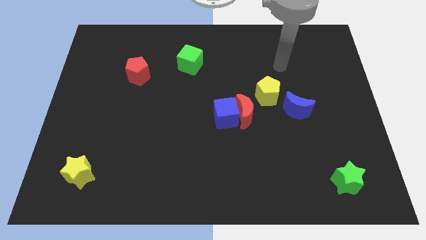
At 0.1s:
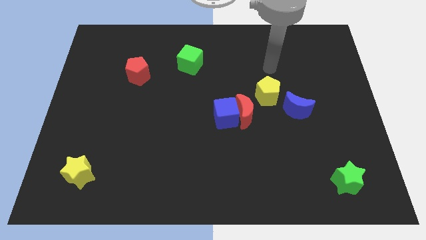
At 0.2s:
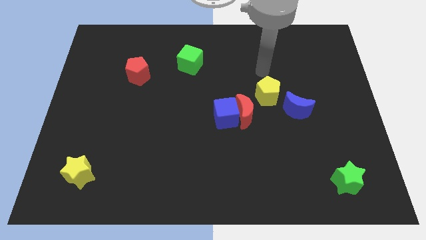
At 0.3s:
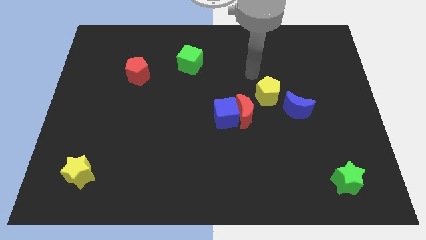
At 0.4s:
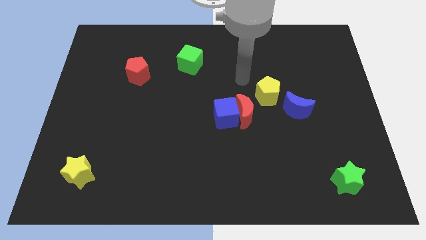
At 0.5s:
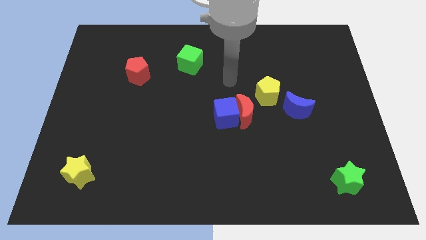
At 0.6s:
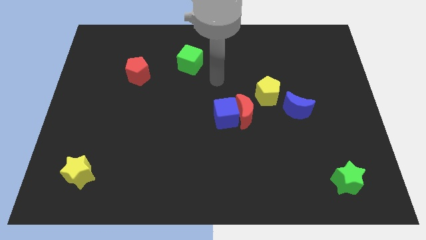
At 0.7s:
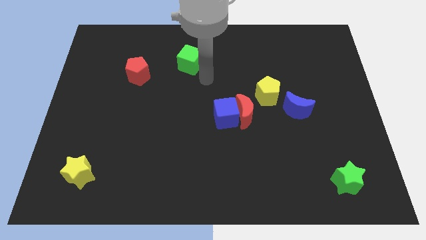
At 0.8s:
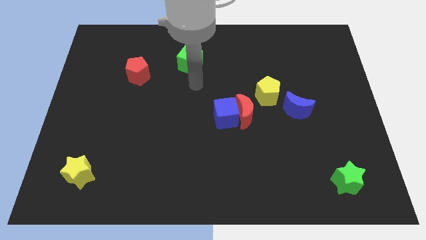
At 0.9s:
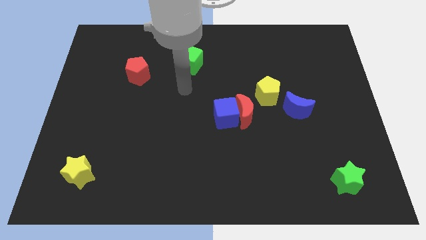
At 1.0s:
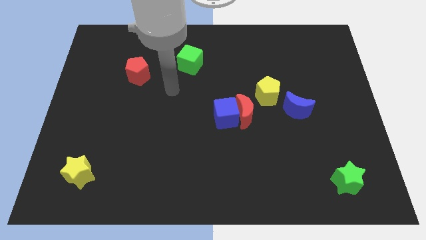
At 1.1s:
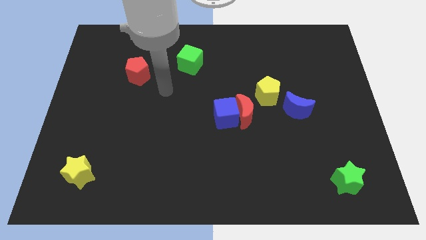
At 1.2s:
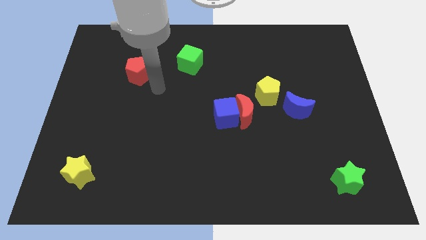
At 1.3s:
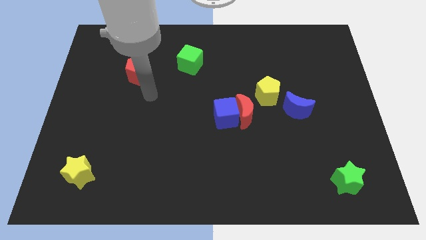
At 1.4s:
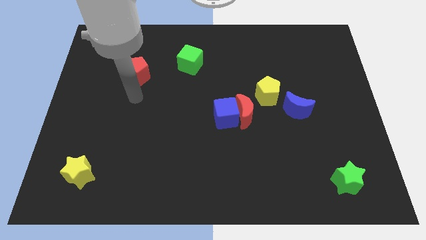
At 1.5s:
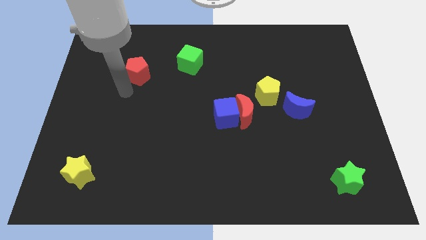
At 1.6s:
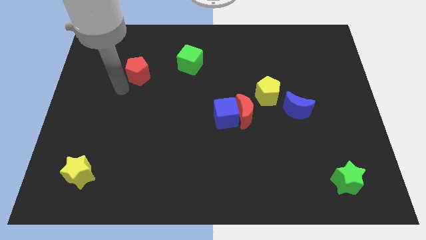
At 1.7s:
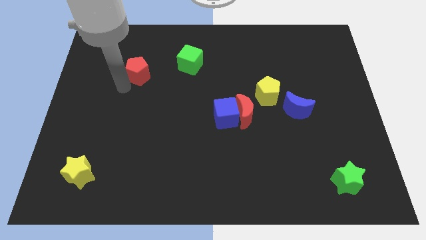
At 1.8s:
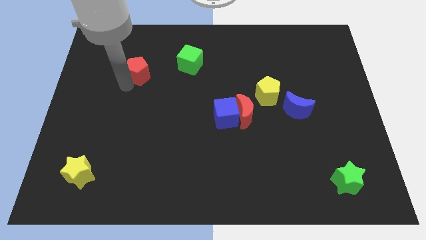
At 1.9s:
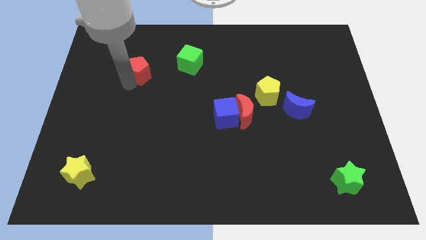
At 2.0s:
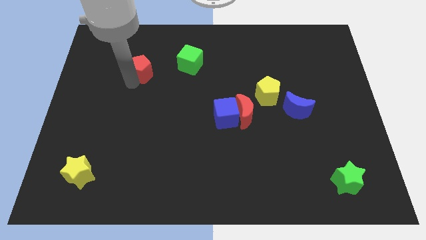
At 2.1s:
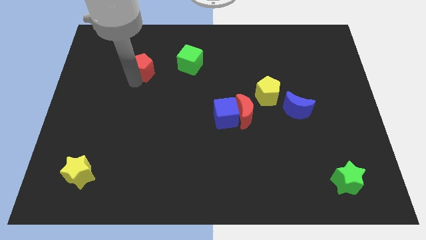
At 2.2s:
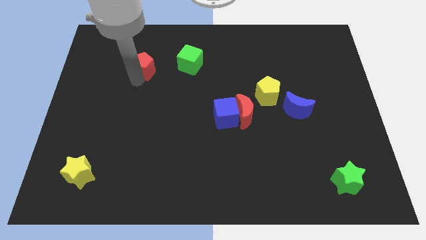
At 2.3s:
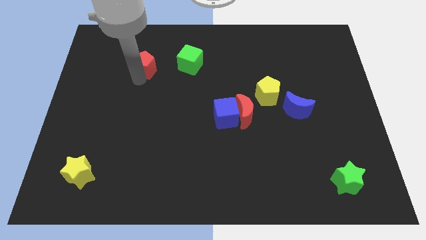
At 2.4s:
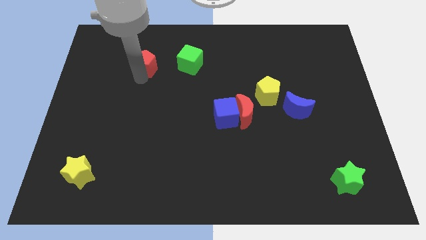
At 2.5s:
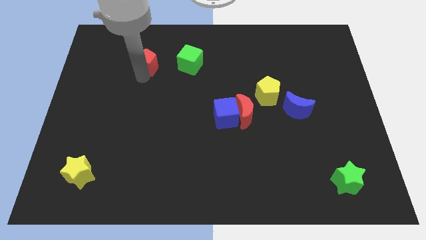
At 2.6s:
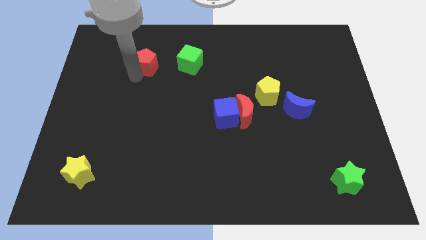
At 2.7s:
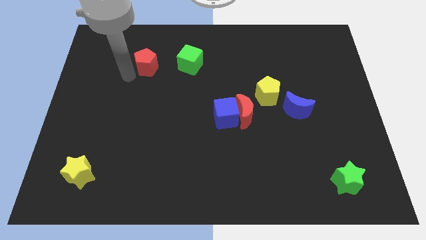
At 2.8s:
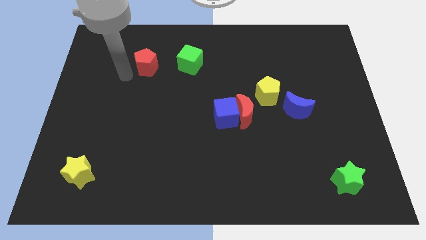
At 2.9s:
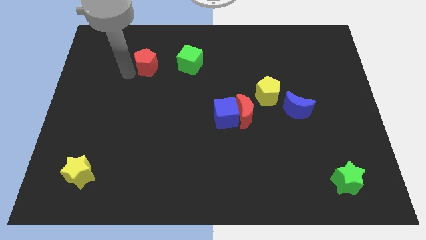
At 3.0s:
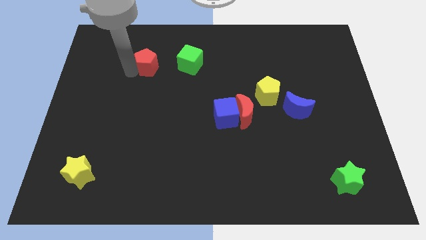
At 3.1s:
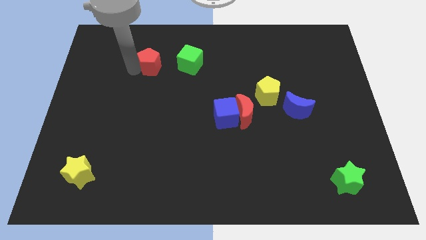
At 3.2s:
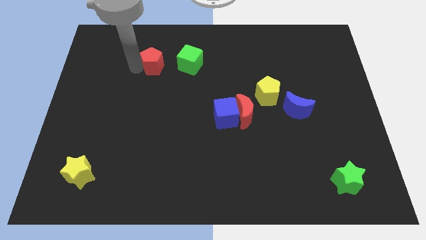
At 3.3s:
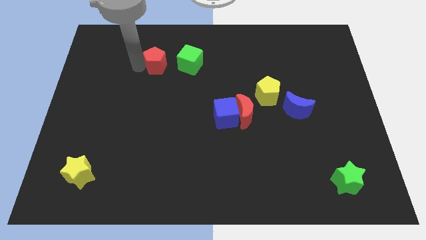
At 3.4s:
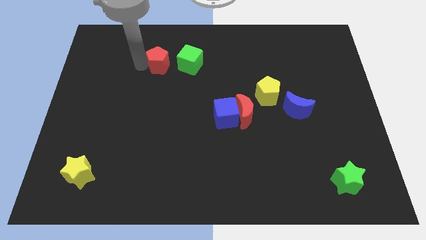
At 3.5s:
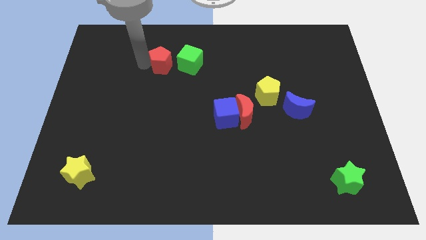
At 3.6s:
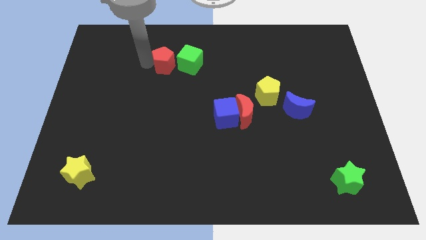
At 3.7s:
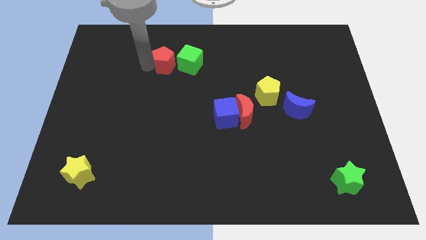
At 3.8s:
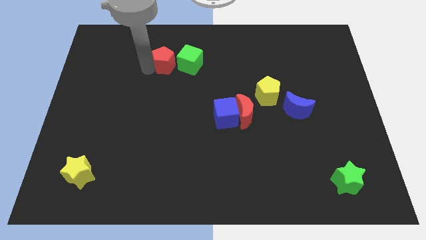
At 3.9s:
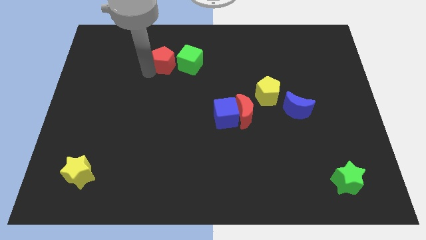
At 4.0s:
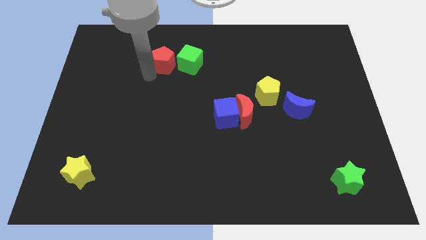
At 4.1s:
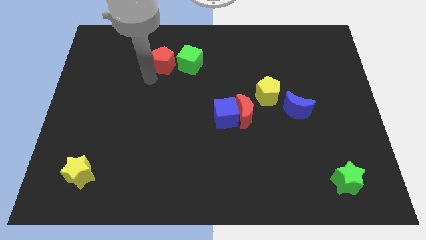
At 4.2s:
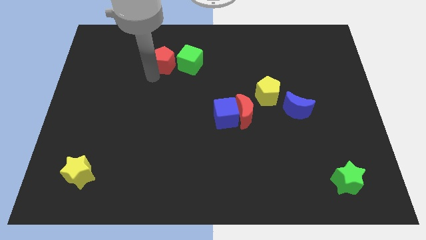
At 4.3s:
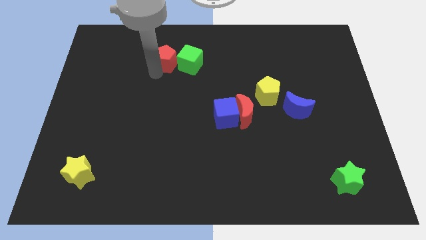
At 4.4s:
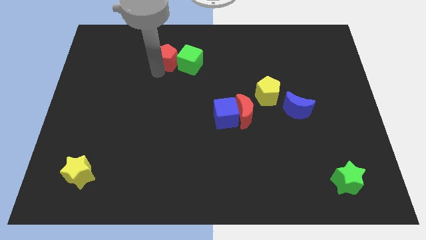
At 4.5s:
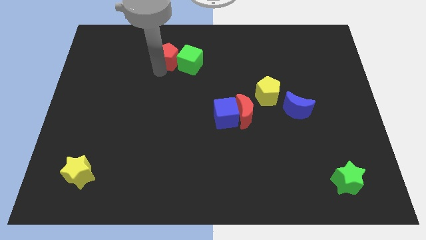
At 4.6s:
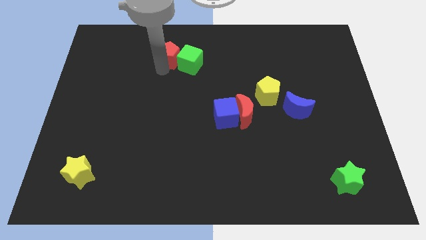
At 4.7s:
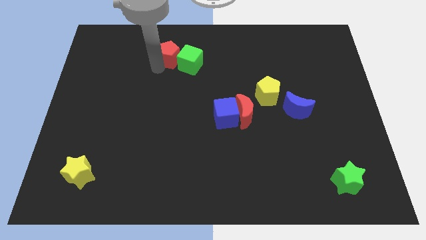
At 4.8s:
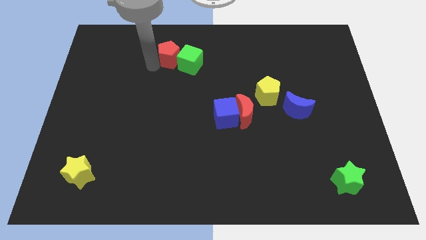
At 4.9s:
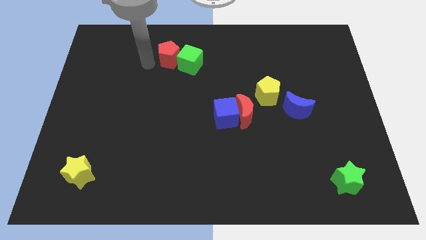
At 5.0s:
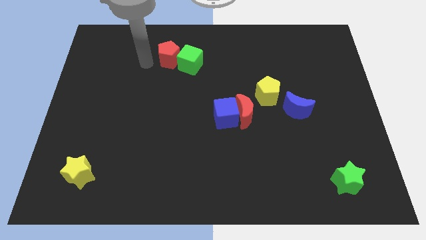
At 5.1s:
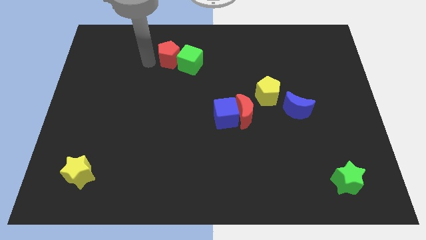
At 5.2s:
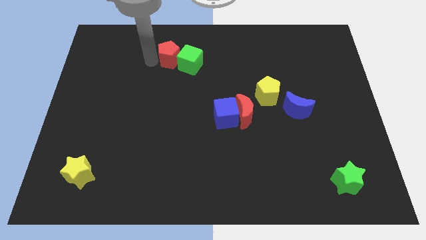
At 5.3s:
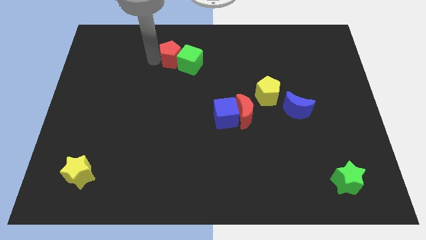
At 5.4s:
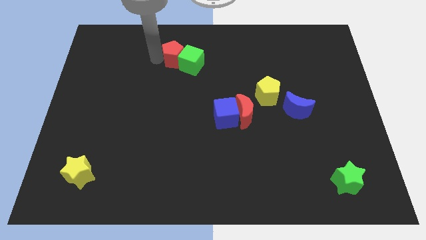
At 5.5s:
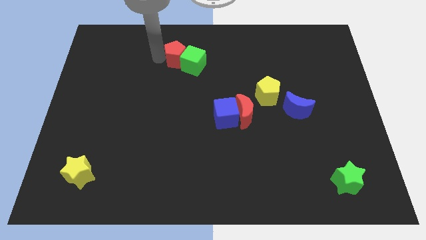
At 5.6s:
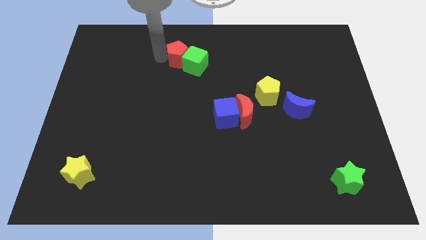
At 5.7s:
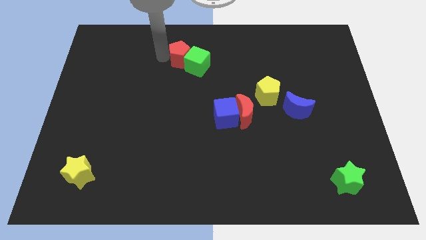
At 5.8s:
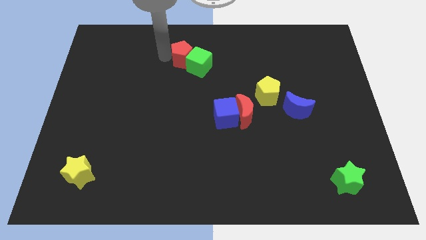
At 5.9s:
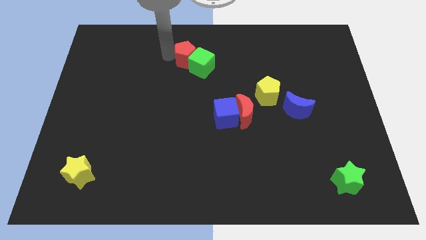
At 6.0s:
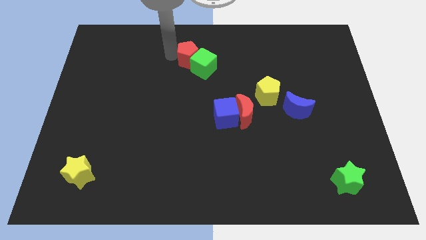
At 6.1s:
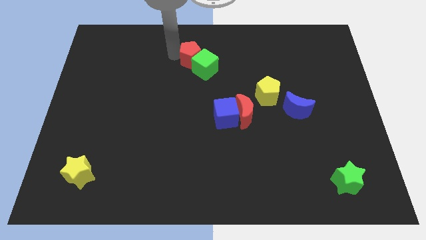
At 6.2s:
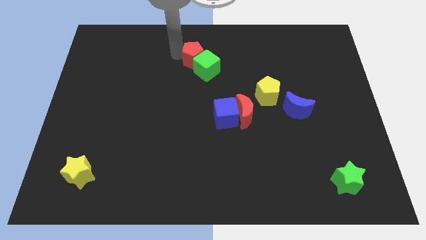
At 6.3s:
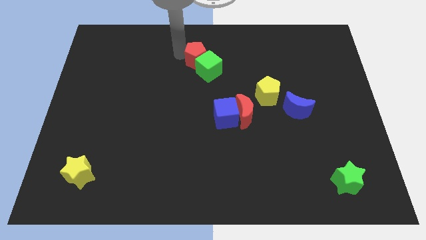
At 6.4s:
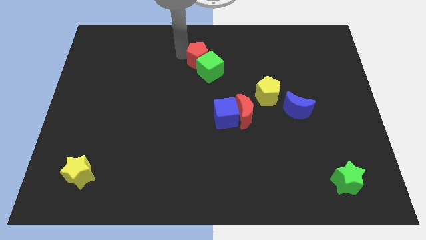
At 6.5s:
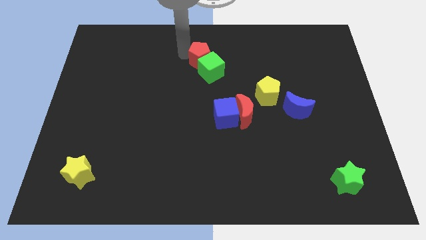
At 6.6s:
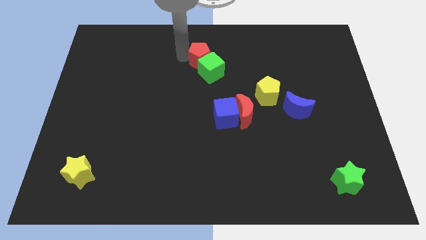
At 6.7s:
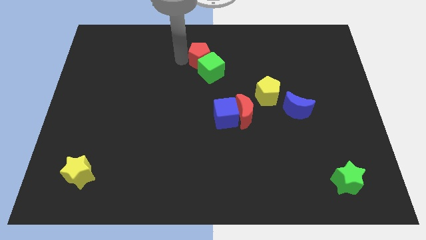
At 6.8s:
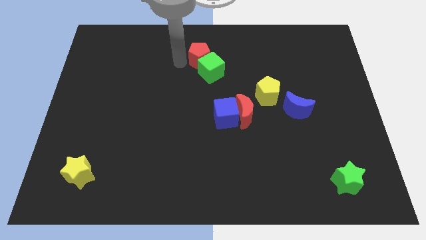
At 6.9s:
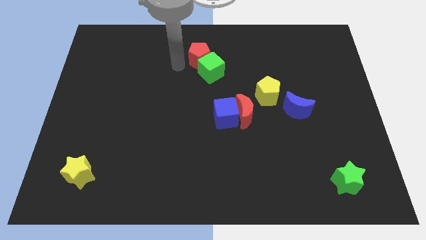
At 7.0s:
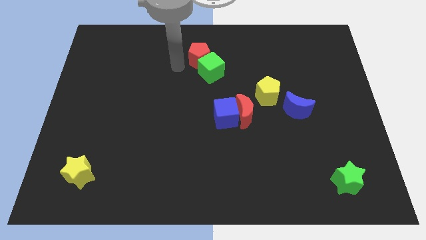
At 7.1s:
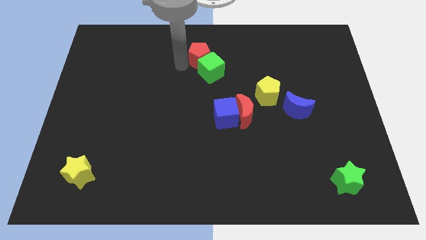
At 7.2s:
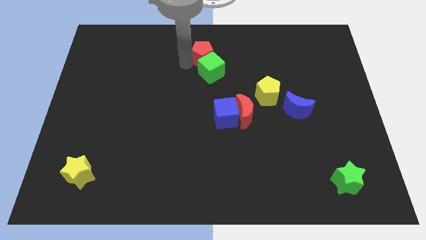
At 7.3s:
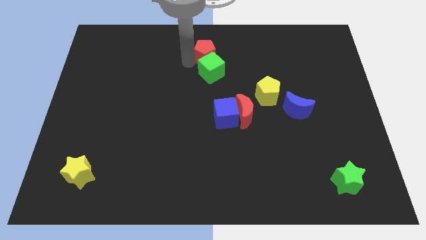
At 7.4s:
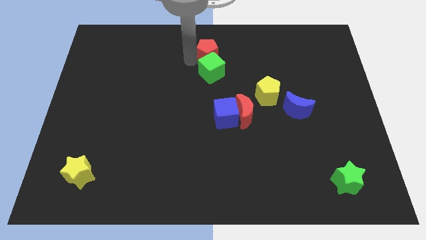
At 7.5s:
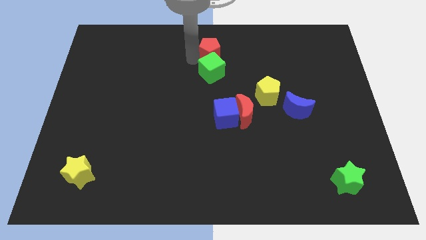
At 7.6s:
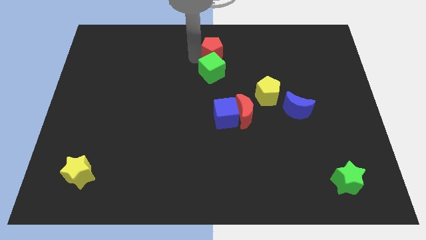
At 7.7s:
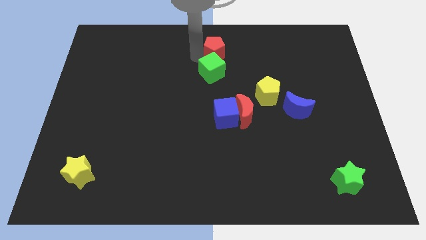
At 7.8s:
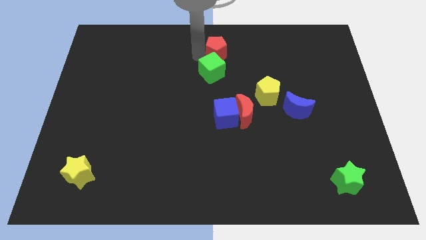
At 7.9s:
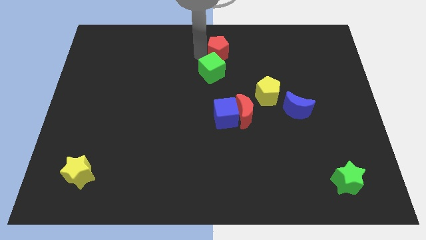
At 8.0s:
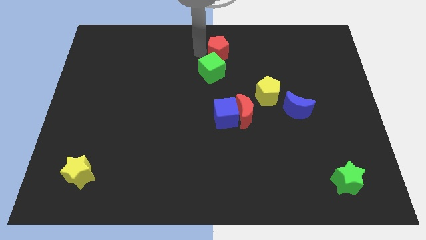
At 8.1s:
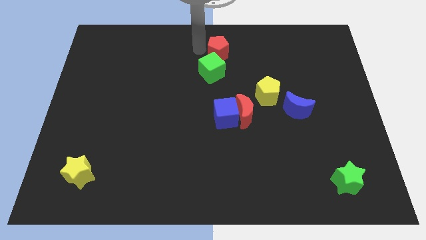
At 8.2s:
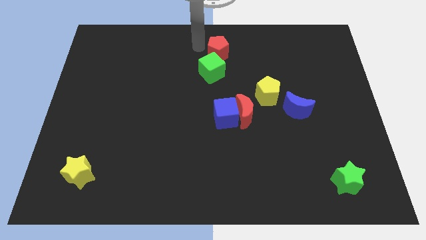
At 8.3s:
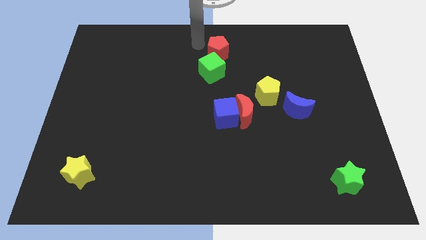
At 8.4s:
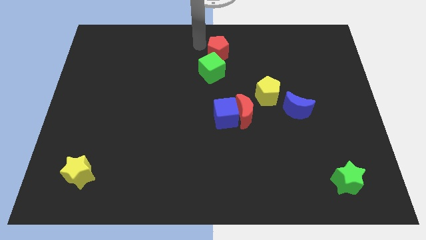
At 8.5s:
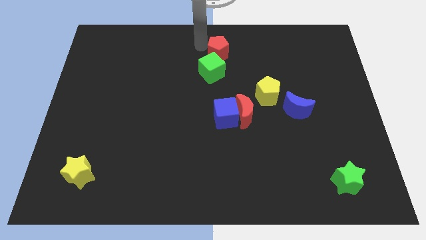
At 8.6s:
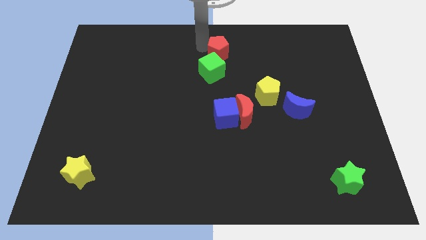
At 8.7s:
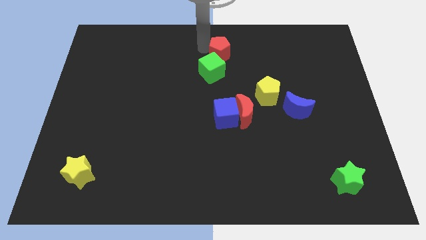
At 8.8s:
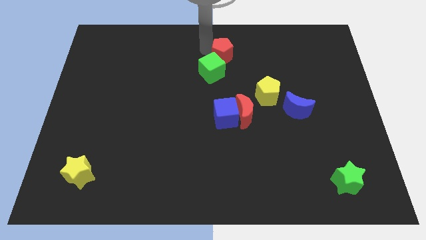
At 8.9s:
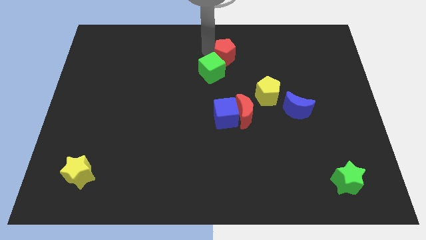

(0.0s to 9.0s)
move the red pentagon to the right
